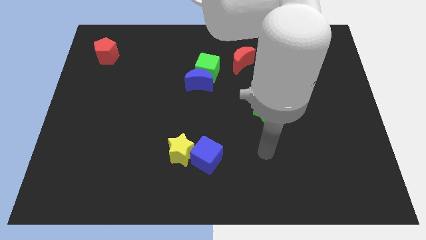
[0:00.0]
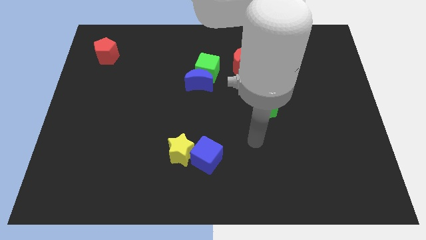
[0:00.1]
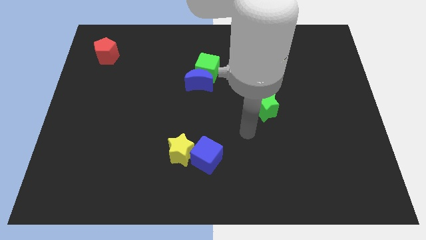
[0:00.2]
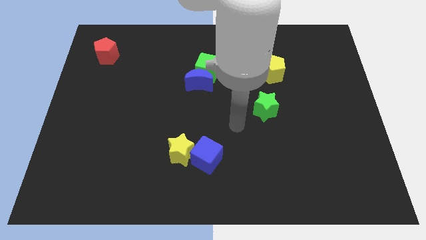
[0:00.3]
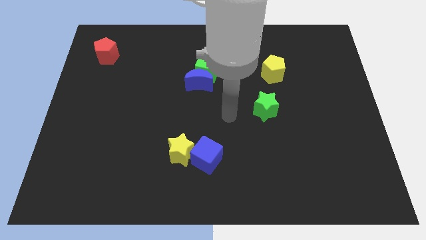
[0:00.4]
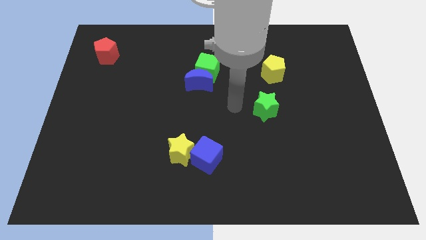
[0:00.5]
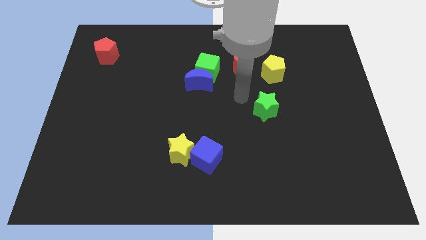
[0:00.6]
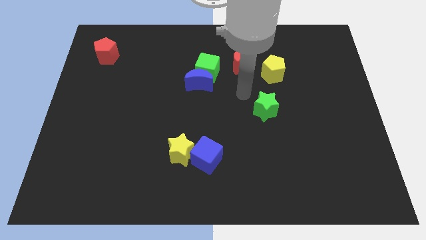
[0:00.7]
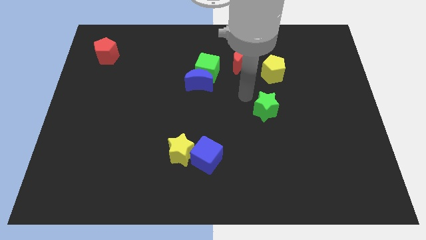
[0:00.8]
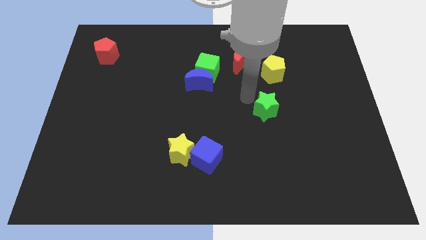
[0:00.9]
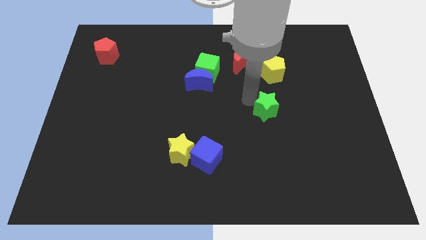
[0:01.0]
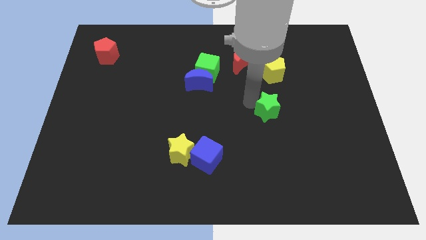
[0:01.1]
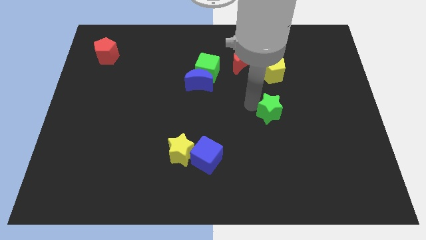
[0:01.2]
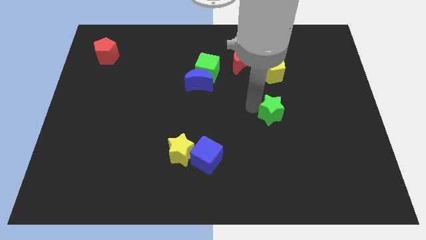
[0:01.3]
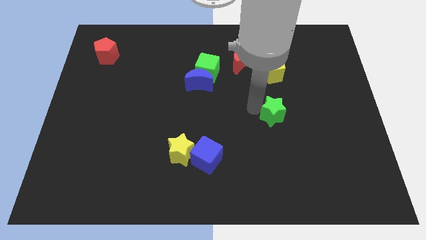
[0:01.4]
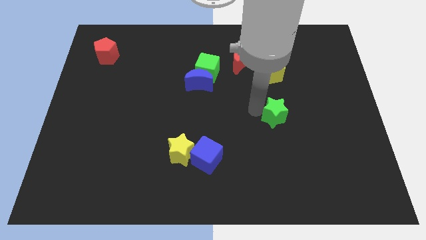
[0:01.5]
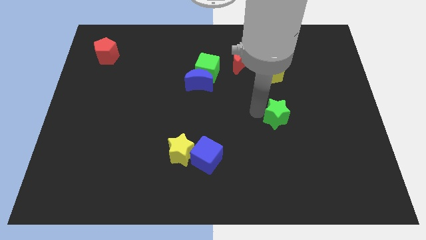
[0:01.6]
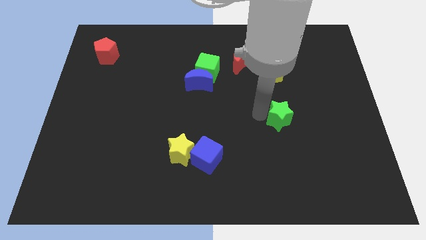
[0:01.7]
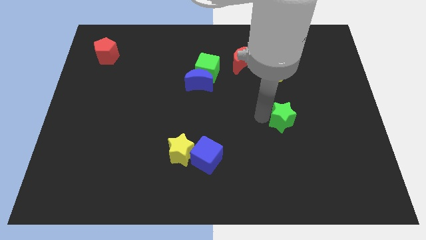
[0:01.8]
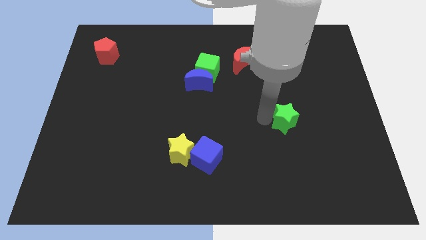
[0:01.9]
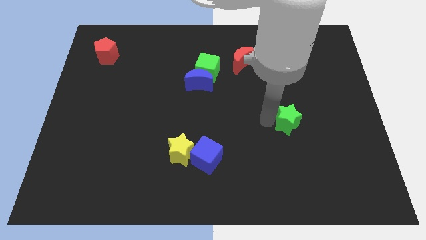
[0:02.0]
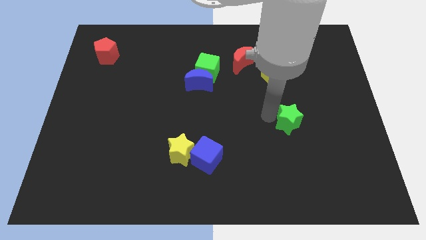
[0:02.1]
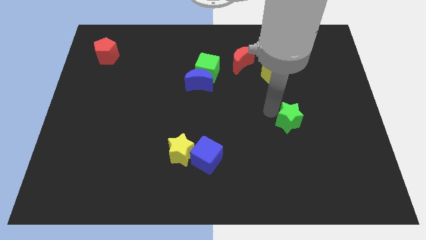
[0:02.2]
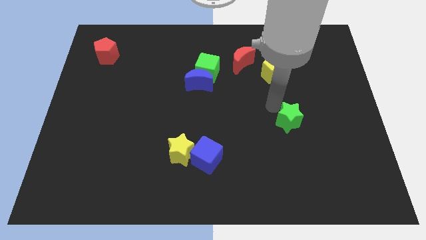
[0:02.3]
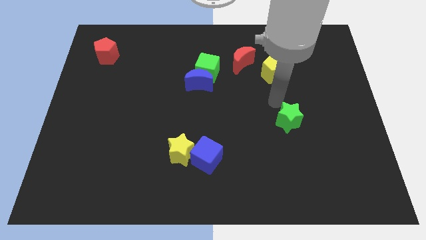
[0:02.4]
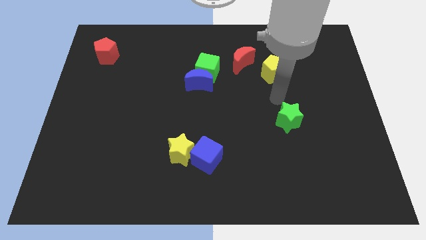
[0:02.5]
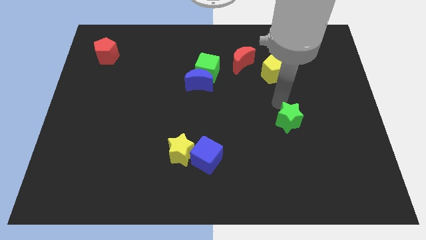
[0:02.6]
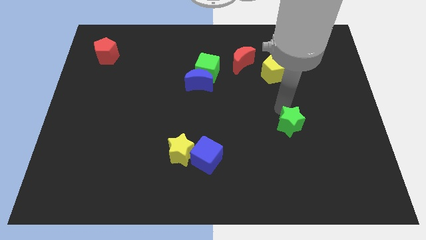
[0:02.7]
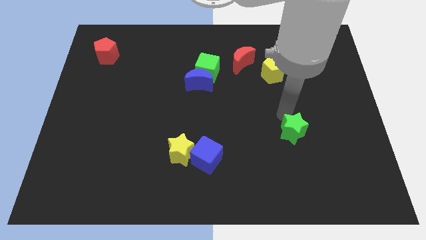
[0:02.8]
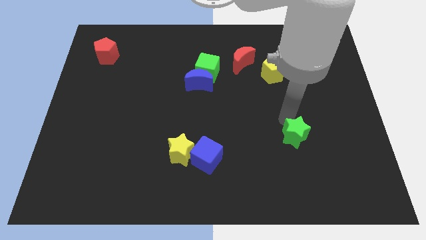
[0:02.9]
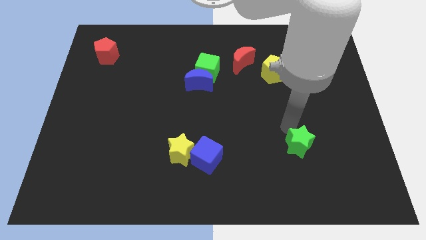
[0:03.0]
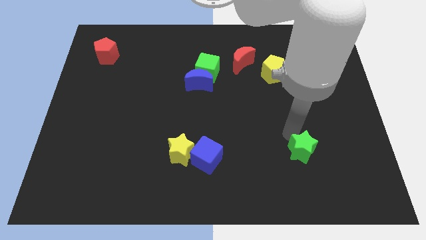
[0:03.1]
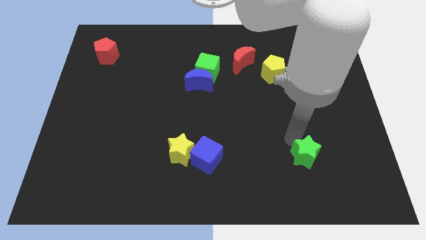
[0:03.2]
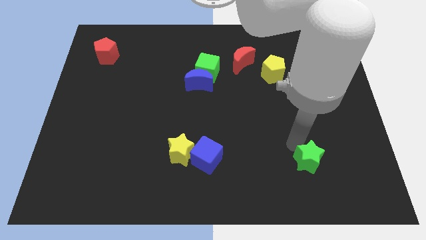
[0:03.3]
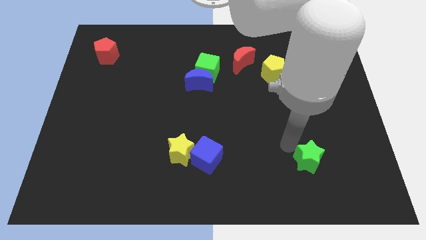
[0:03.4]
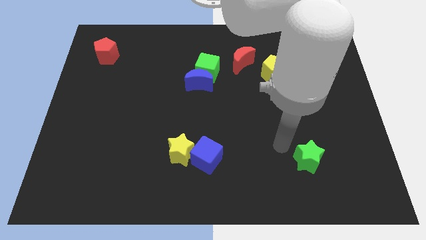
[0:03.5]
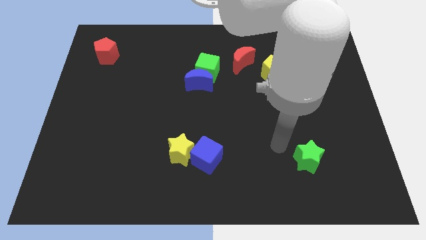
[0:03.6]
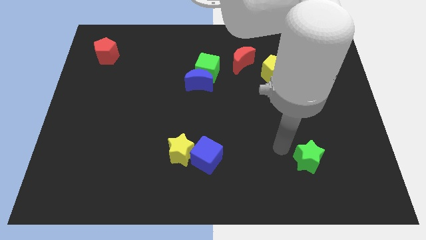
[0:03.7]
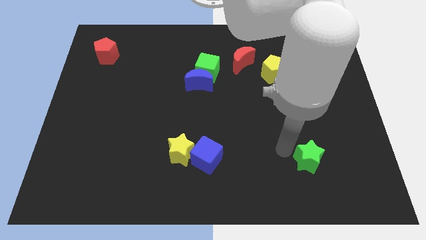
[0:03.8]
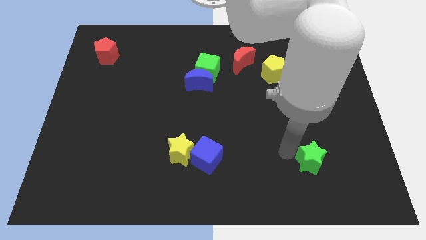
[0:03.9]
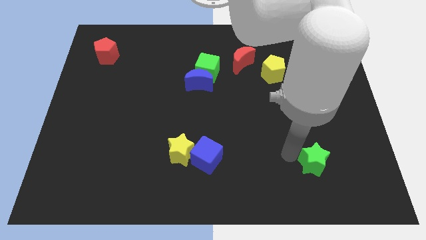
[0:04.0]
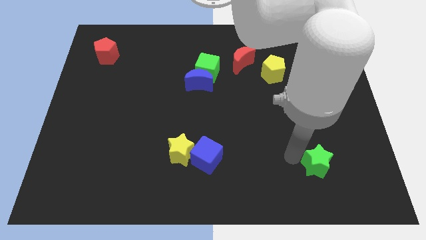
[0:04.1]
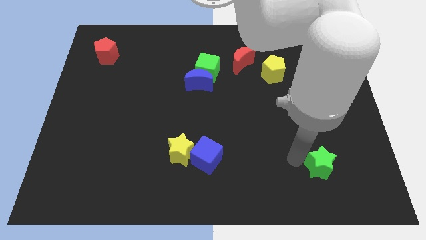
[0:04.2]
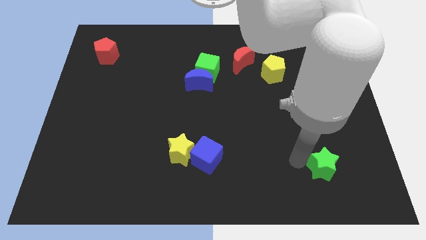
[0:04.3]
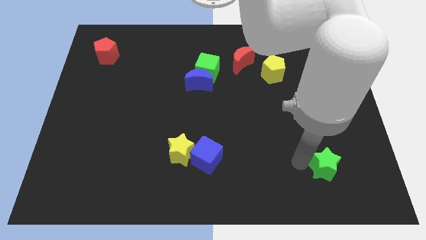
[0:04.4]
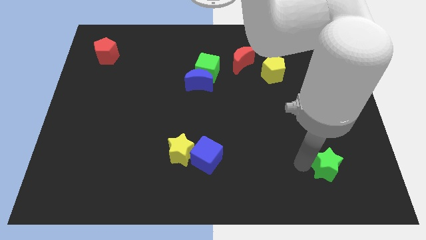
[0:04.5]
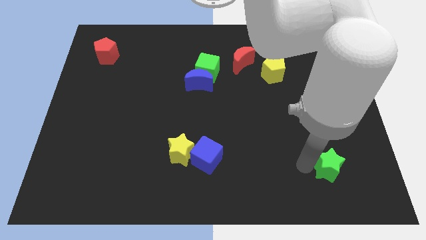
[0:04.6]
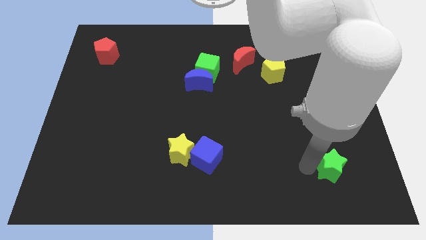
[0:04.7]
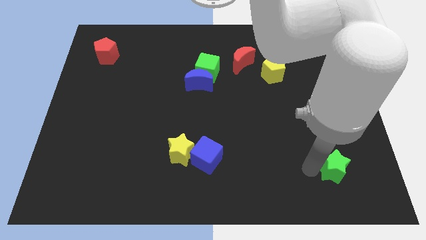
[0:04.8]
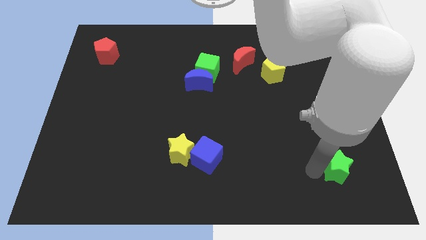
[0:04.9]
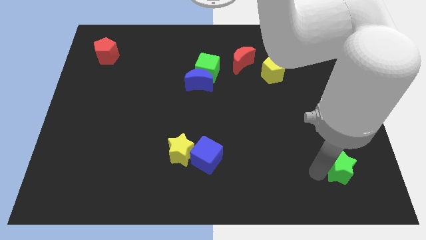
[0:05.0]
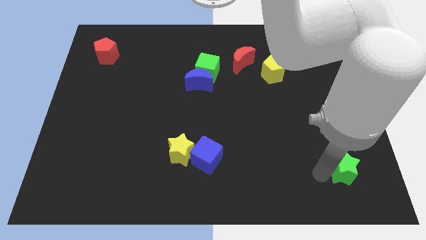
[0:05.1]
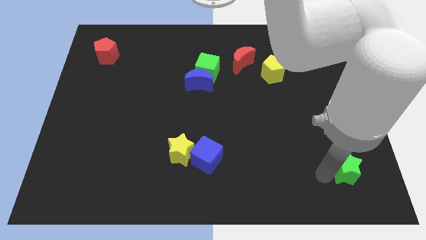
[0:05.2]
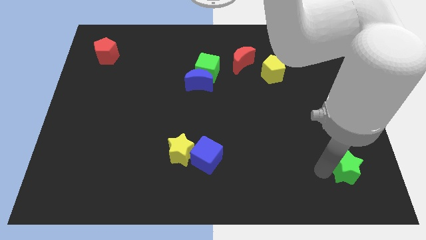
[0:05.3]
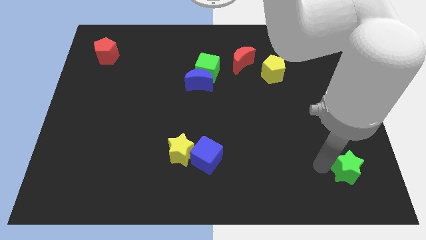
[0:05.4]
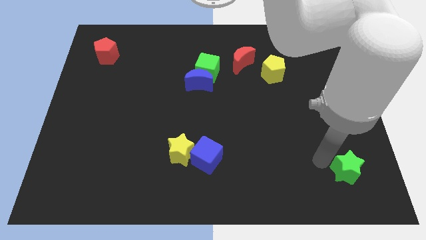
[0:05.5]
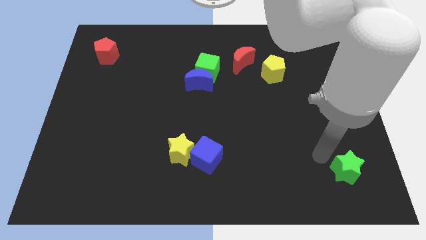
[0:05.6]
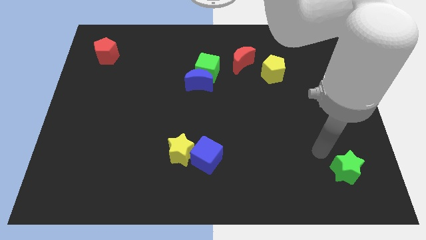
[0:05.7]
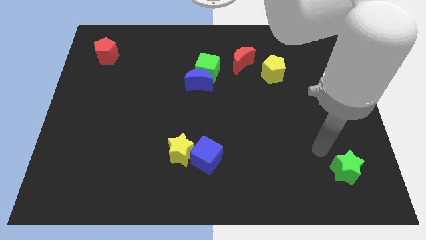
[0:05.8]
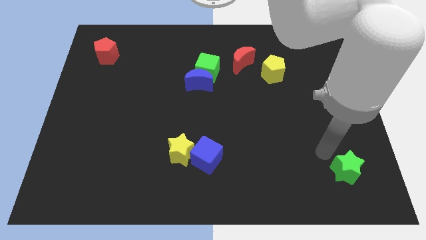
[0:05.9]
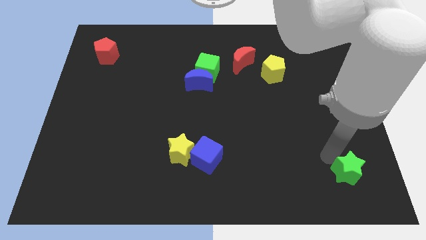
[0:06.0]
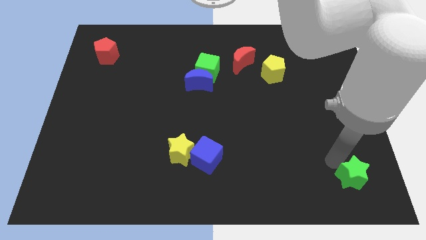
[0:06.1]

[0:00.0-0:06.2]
push the green star to the bottom right
